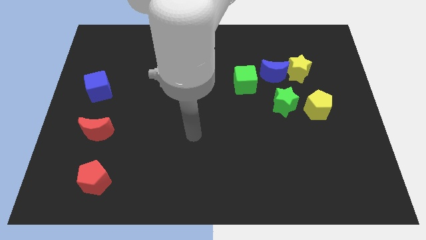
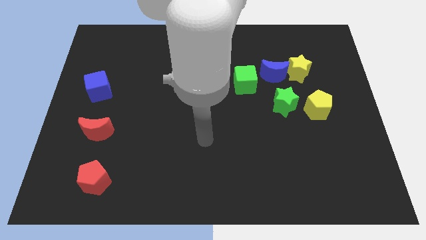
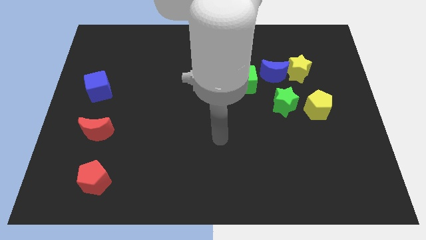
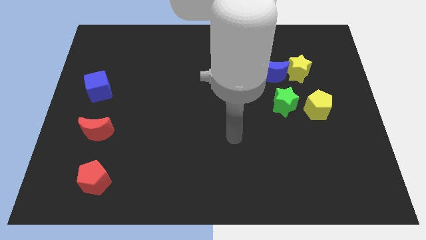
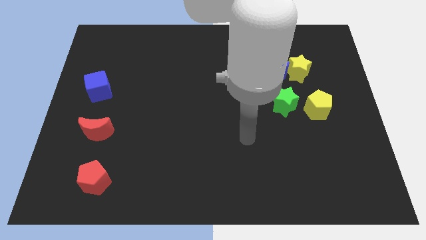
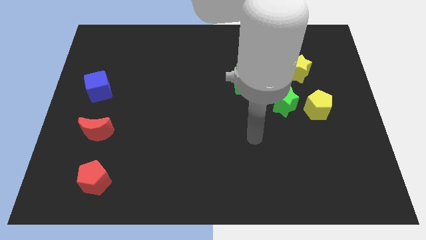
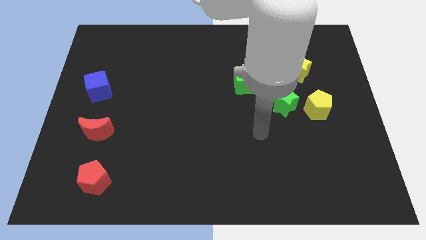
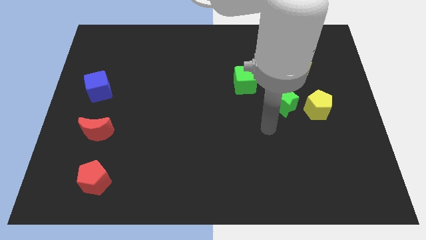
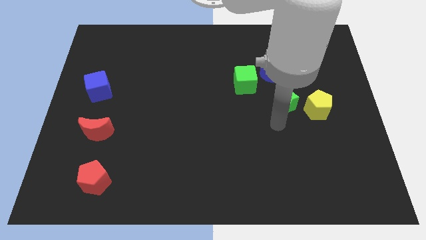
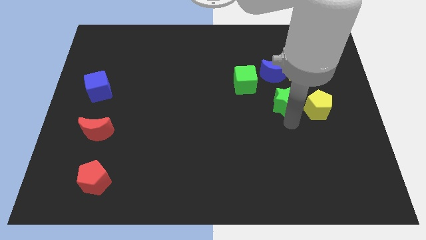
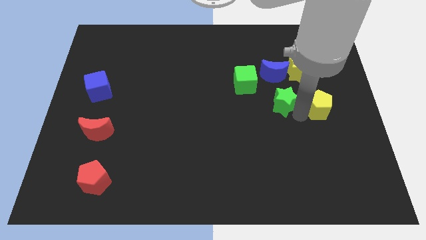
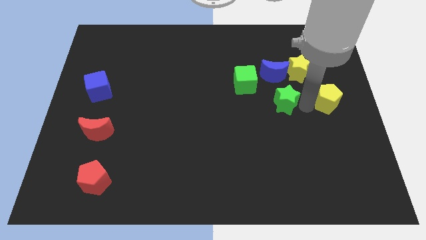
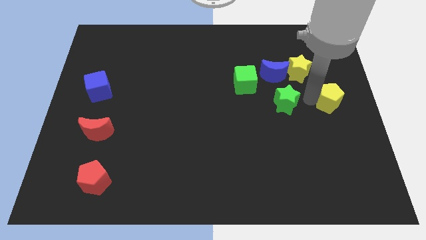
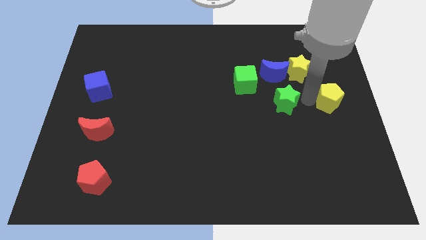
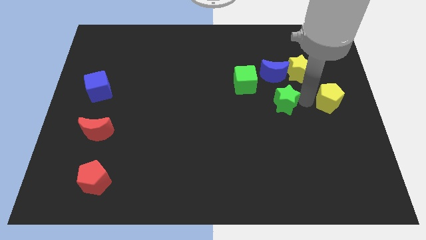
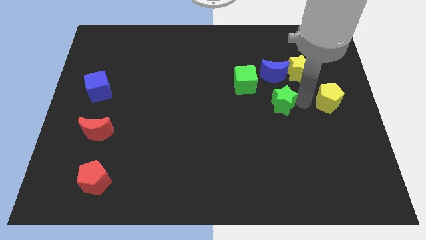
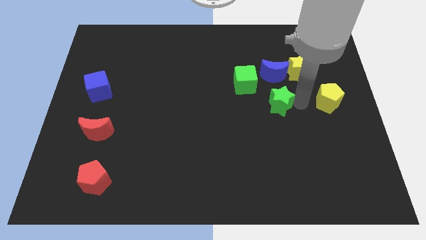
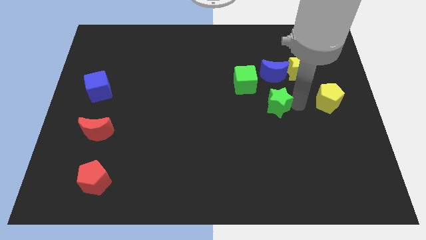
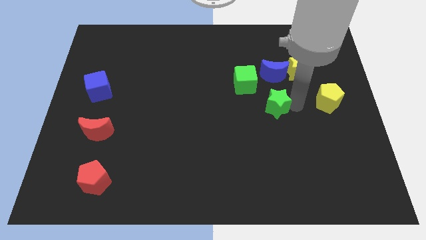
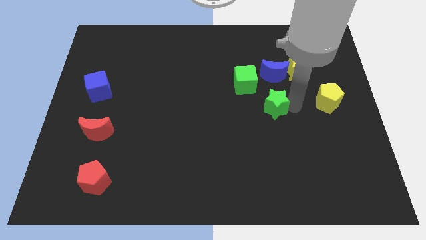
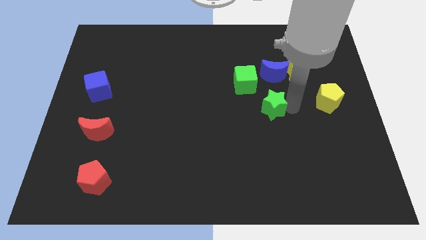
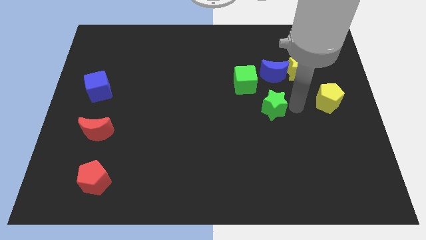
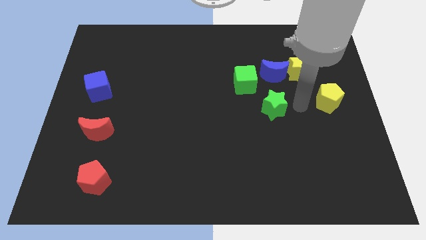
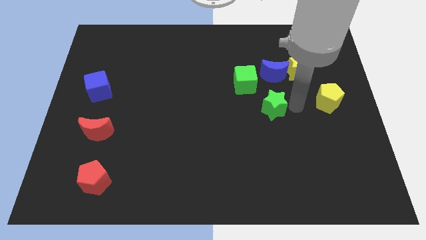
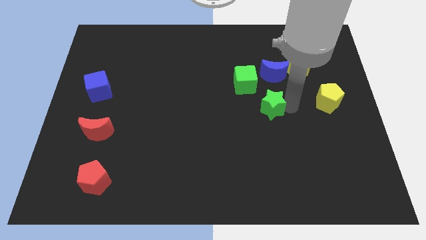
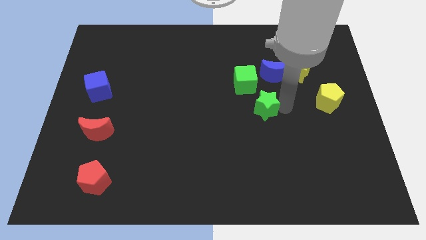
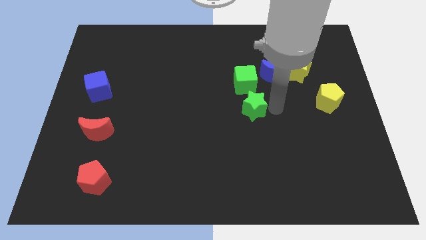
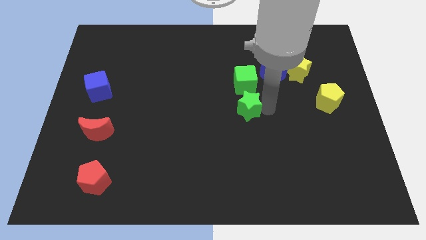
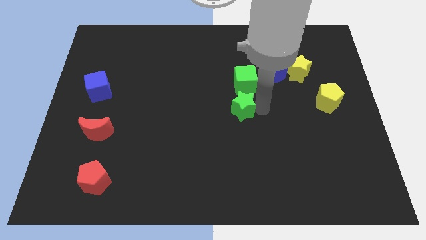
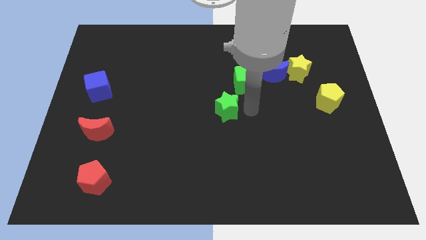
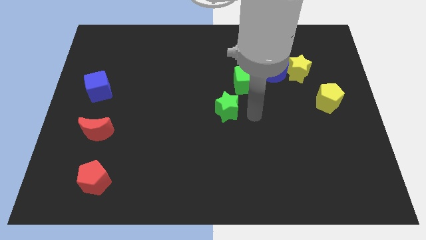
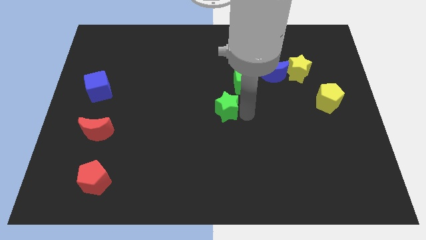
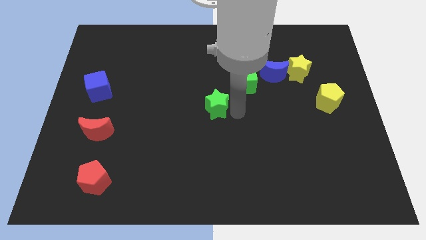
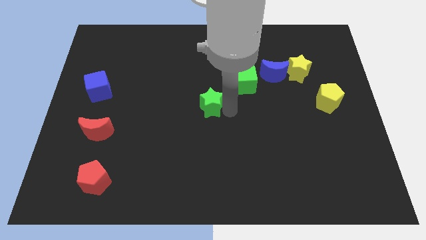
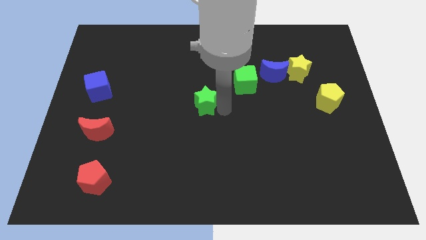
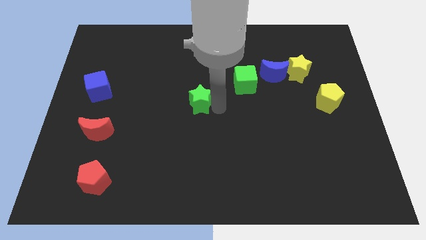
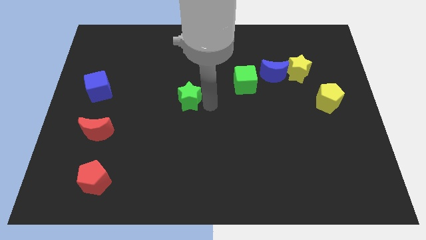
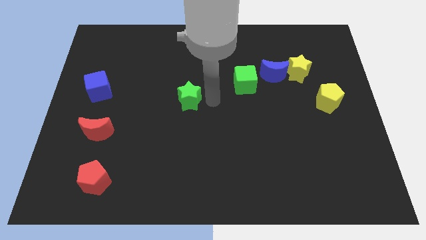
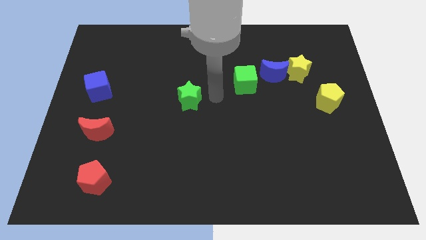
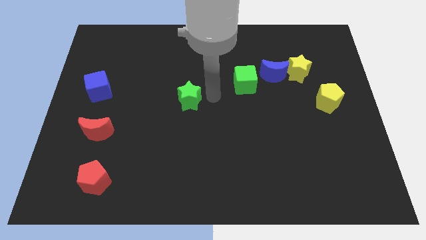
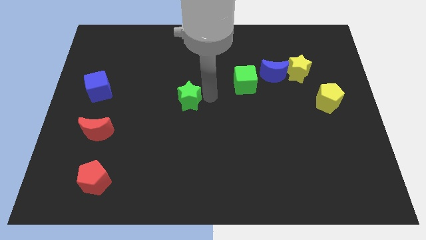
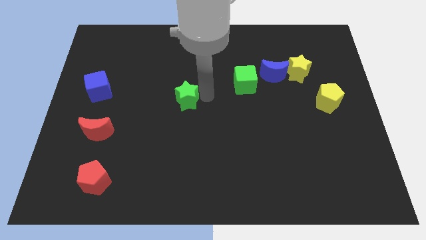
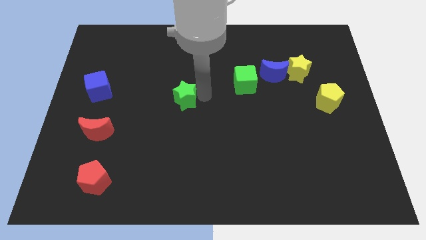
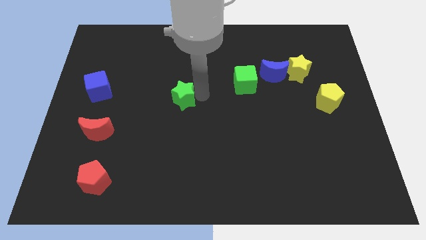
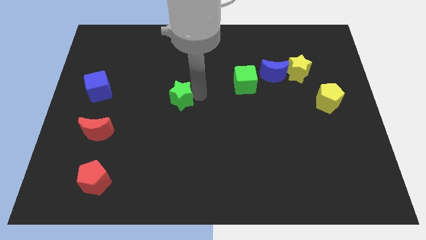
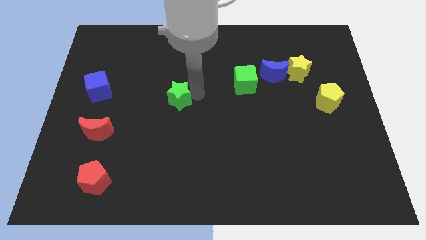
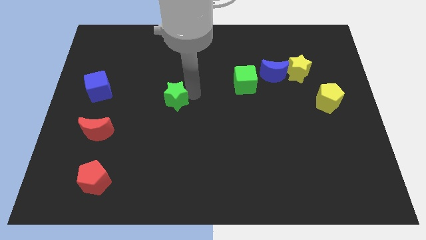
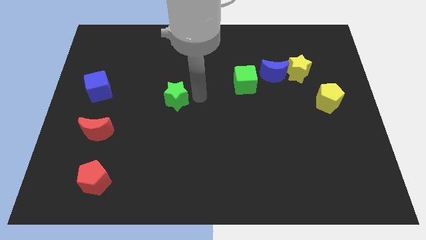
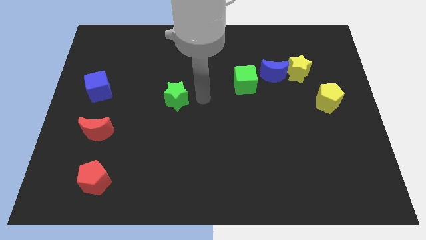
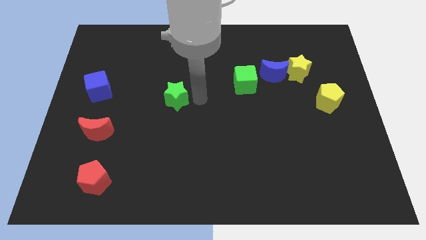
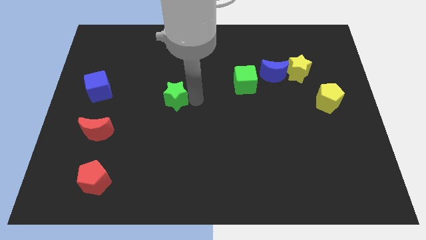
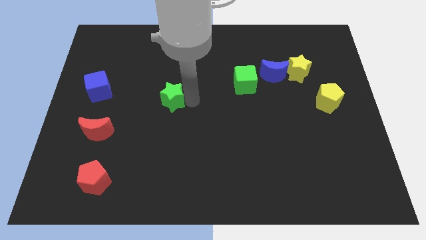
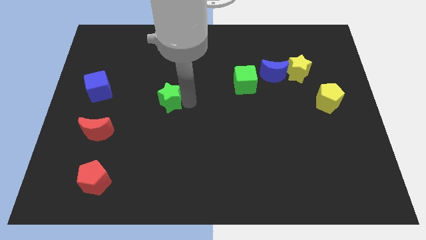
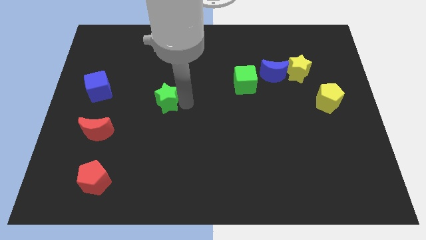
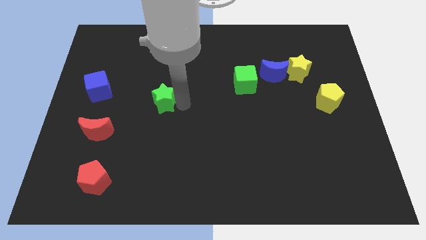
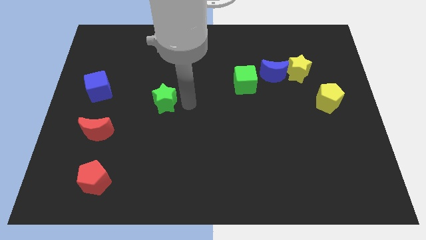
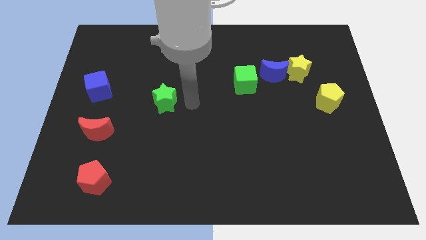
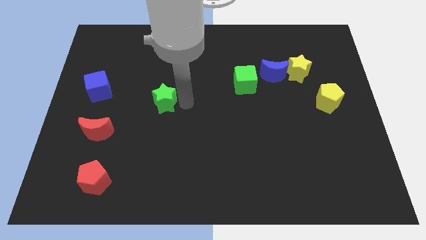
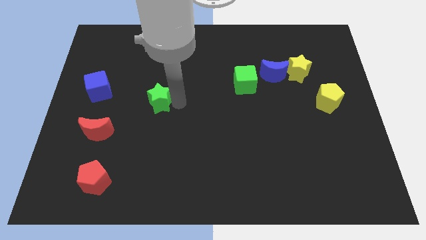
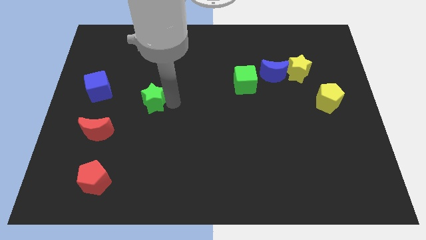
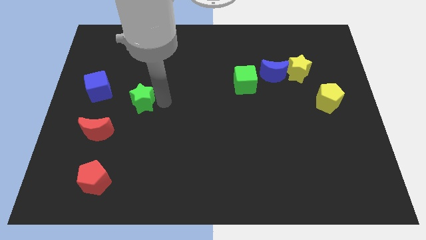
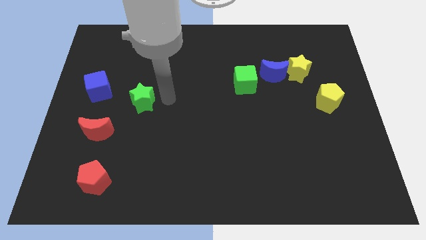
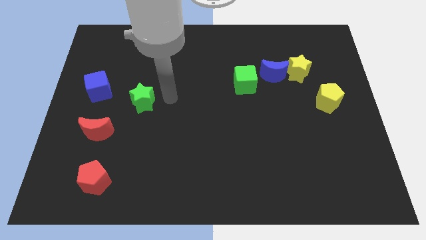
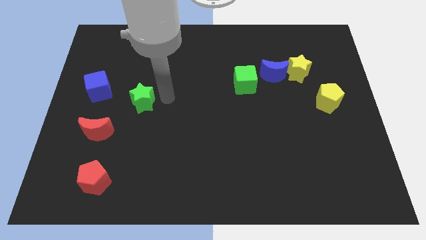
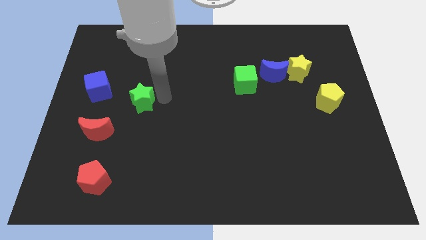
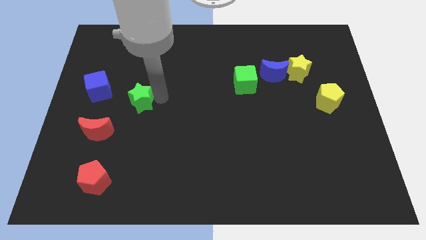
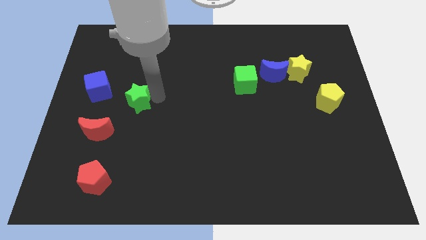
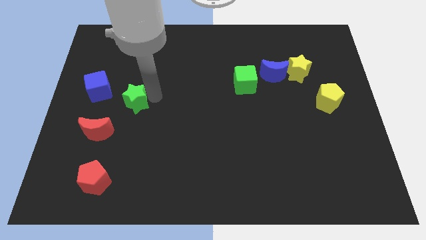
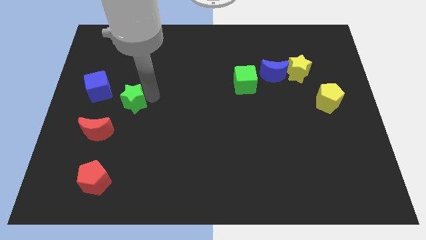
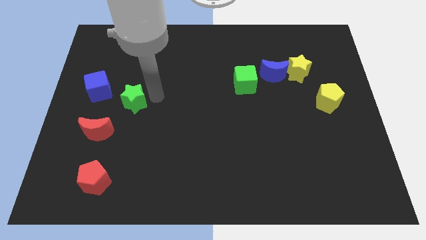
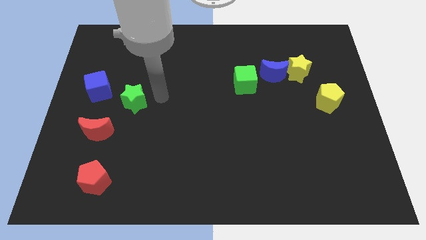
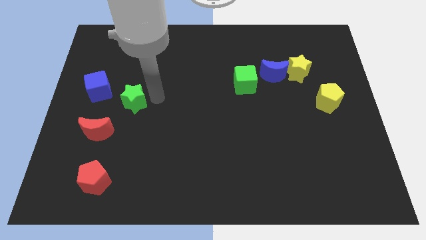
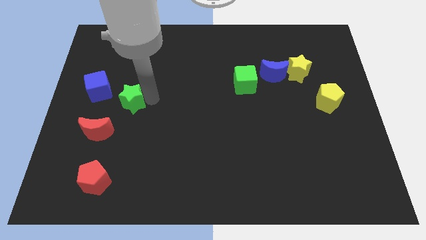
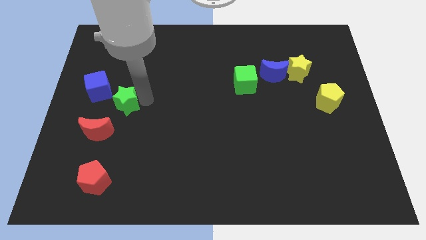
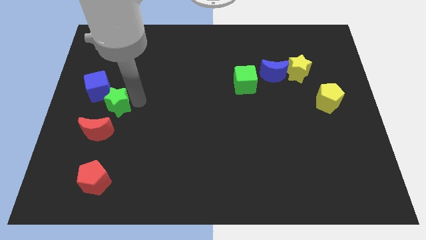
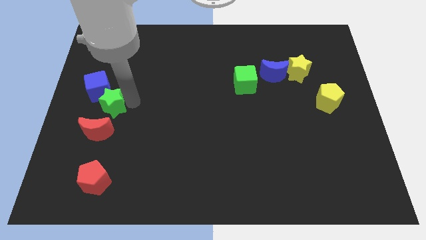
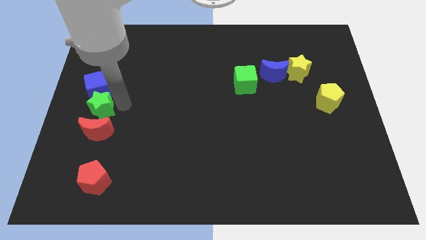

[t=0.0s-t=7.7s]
push the green star to the left side of the board
